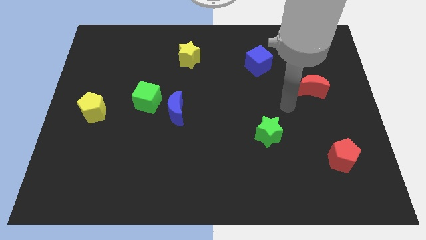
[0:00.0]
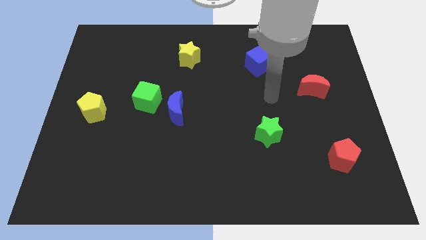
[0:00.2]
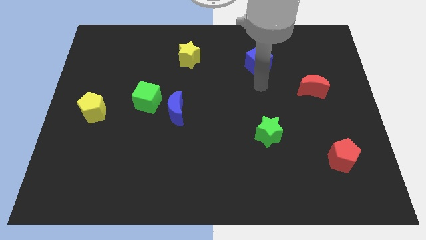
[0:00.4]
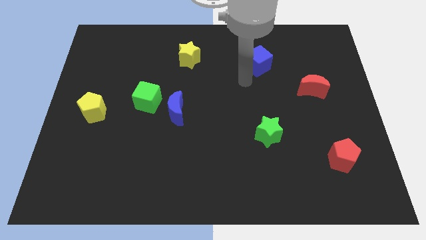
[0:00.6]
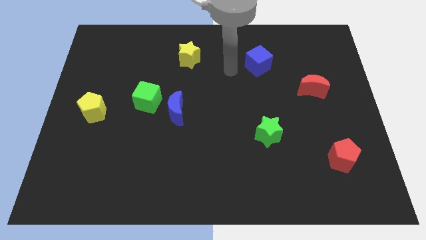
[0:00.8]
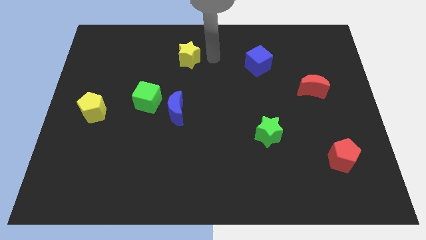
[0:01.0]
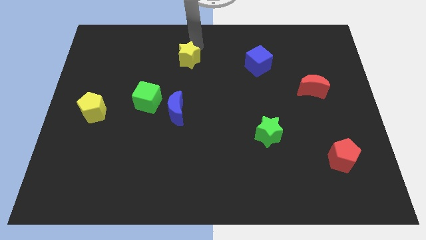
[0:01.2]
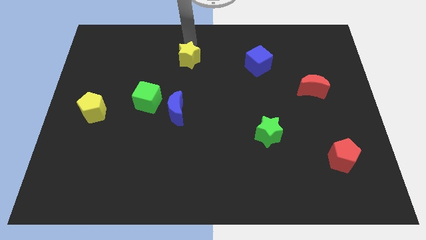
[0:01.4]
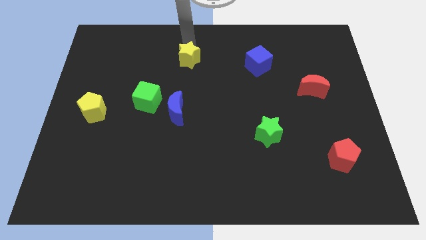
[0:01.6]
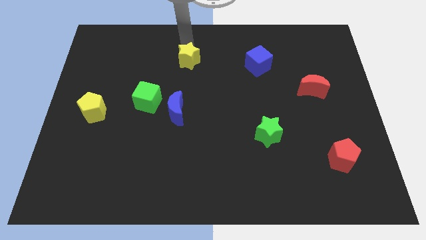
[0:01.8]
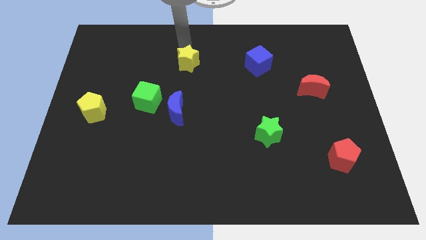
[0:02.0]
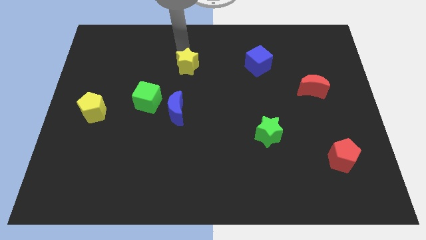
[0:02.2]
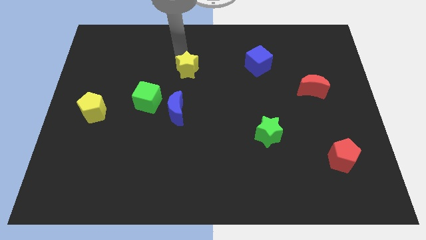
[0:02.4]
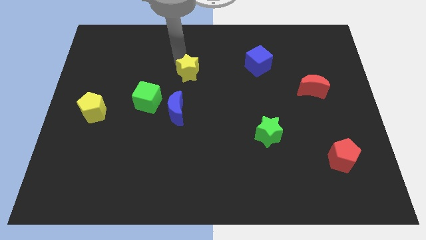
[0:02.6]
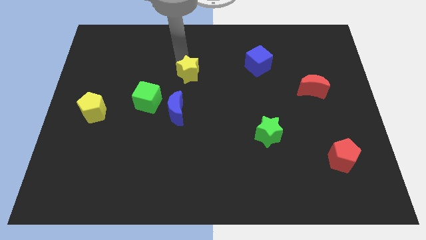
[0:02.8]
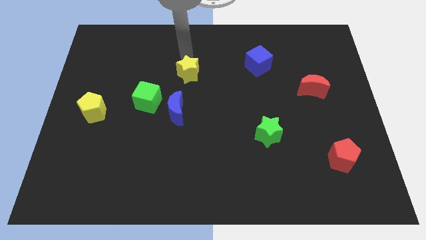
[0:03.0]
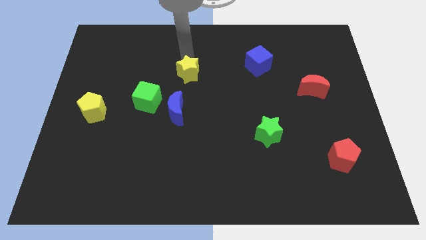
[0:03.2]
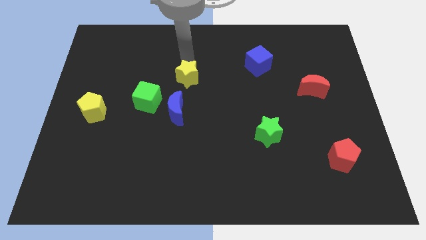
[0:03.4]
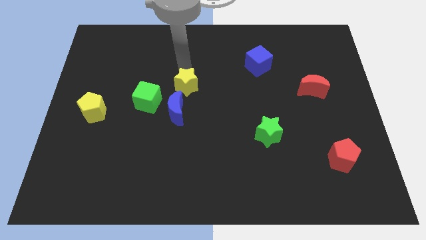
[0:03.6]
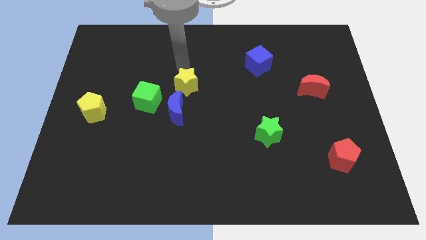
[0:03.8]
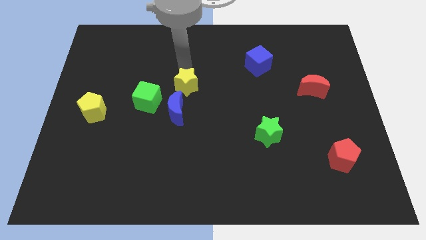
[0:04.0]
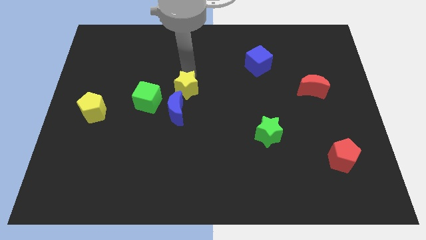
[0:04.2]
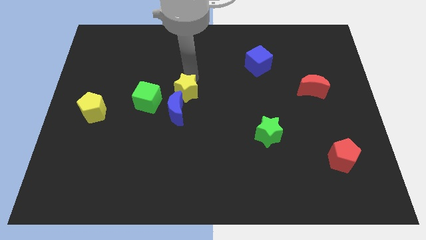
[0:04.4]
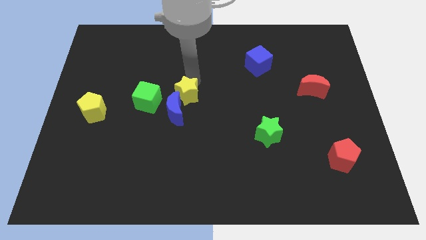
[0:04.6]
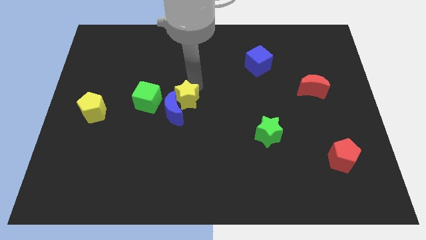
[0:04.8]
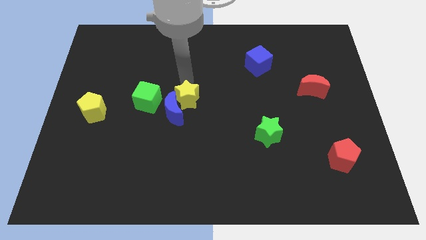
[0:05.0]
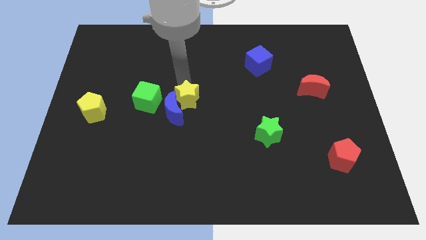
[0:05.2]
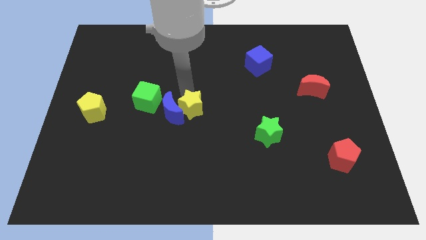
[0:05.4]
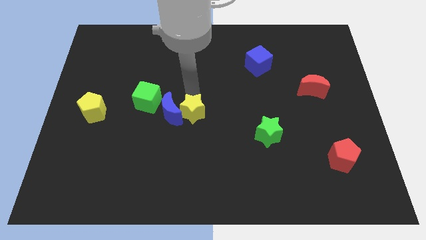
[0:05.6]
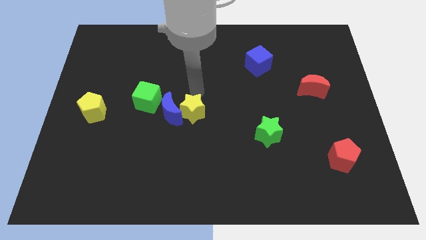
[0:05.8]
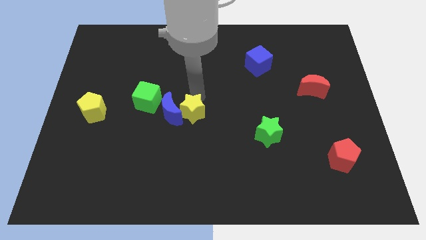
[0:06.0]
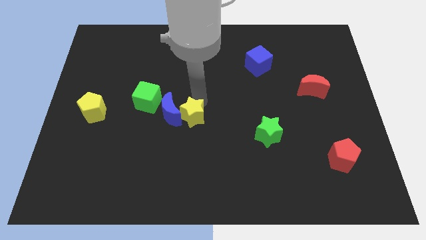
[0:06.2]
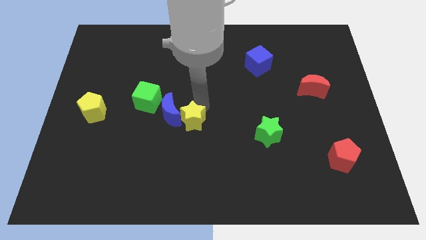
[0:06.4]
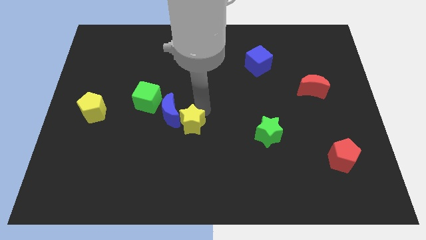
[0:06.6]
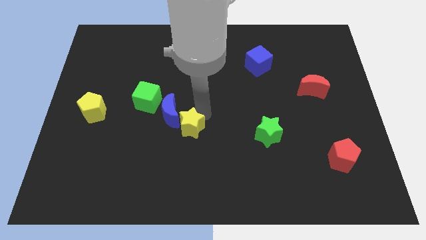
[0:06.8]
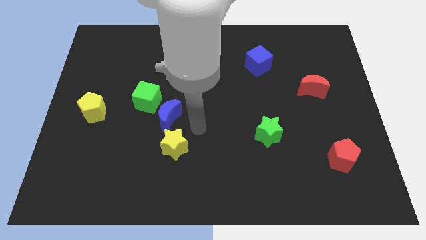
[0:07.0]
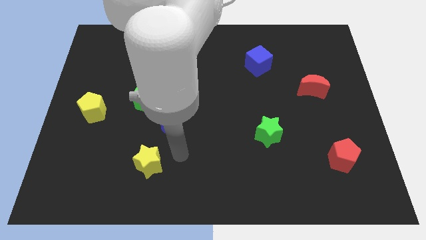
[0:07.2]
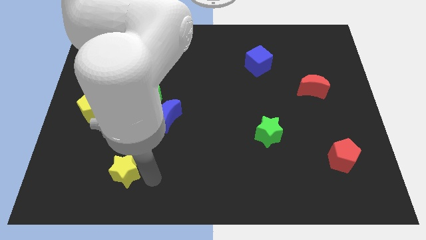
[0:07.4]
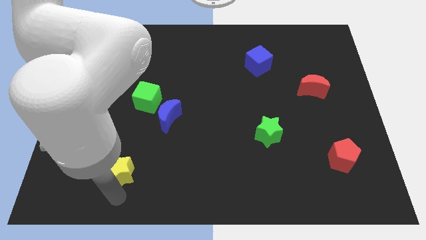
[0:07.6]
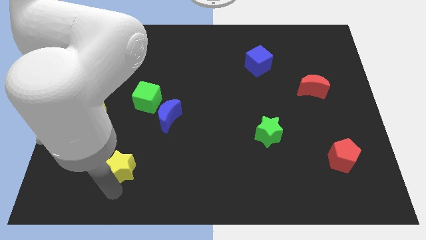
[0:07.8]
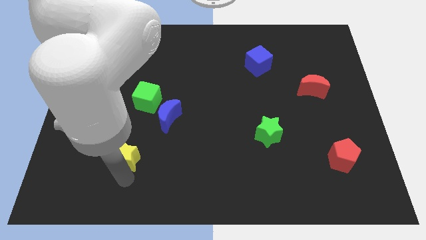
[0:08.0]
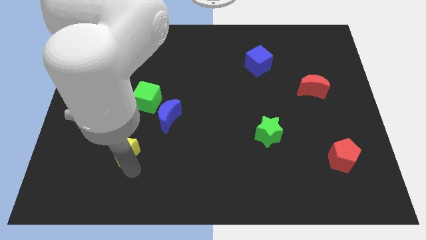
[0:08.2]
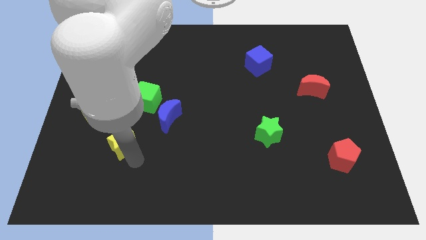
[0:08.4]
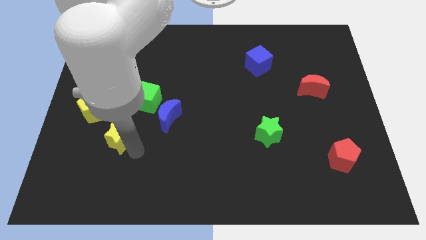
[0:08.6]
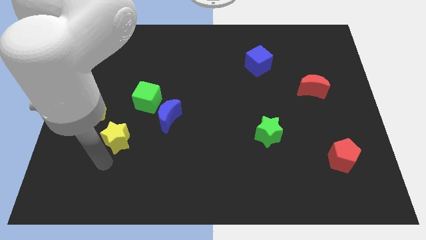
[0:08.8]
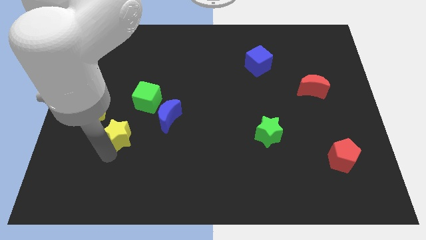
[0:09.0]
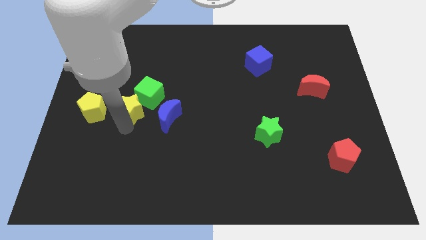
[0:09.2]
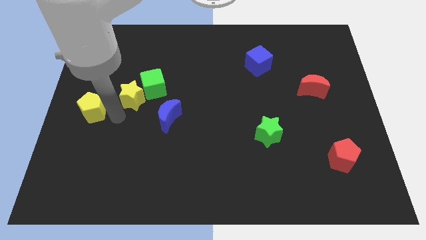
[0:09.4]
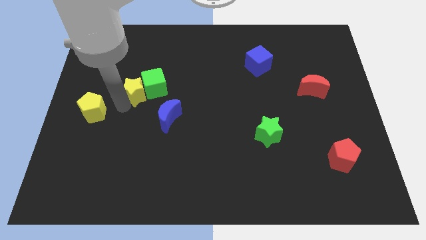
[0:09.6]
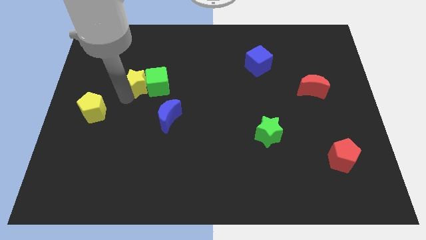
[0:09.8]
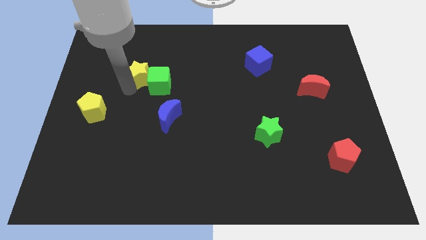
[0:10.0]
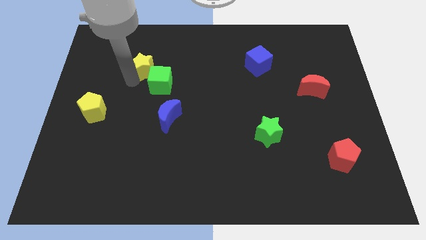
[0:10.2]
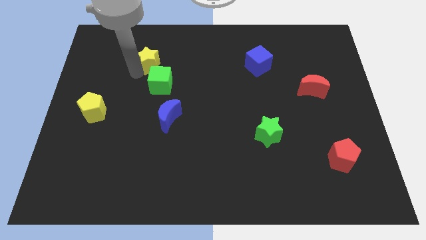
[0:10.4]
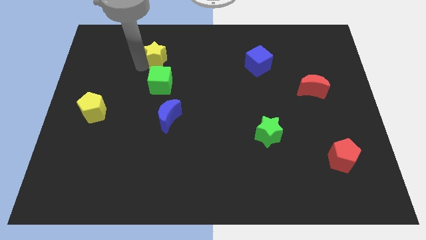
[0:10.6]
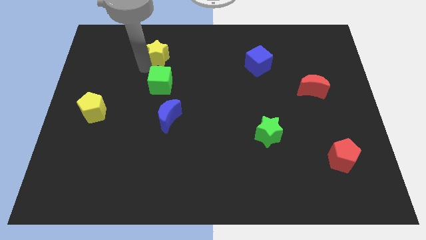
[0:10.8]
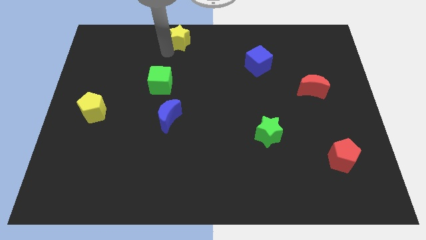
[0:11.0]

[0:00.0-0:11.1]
slide the yellow star to the towards your base

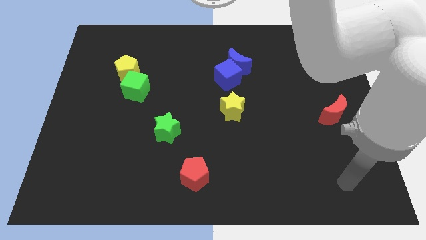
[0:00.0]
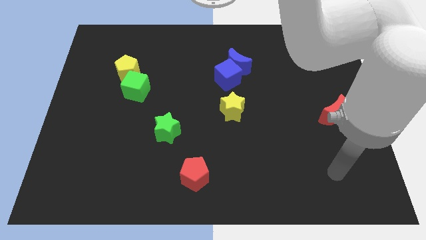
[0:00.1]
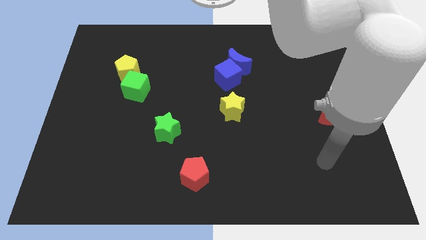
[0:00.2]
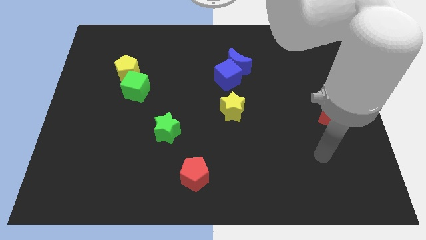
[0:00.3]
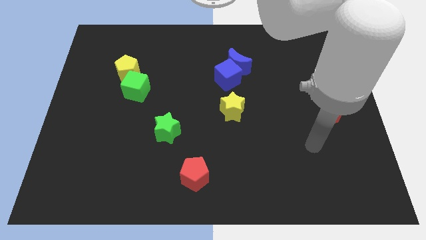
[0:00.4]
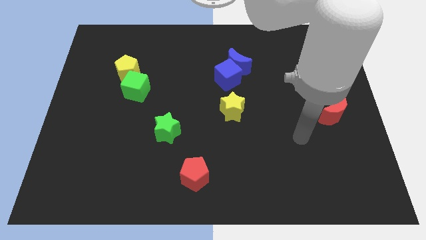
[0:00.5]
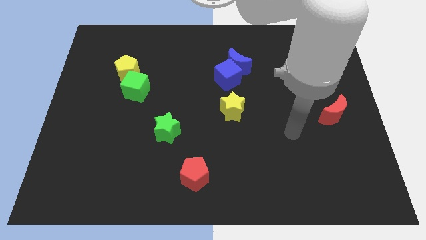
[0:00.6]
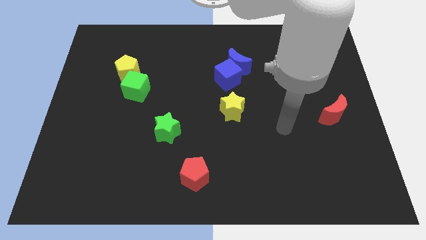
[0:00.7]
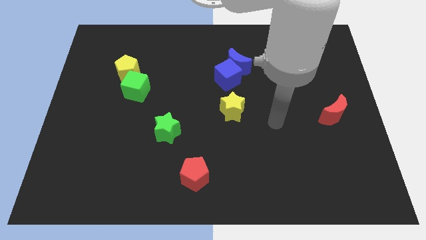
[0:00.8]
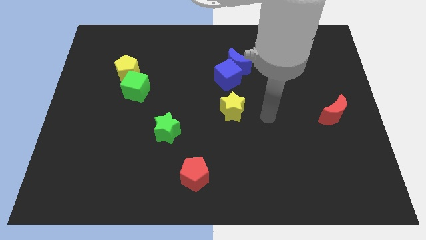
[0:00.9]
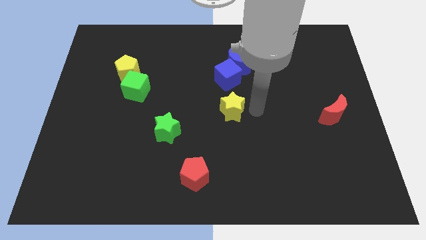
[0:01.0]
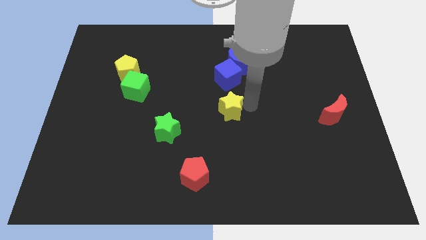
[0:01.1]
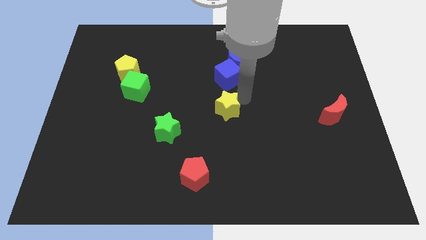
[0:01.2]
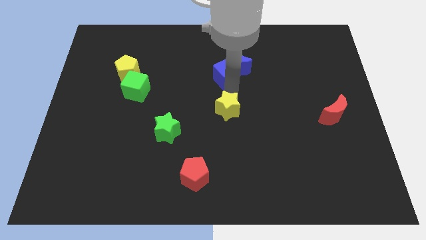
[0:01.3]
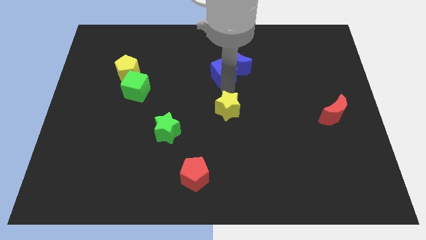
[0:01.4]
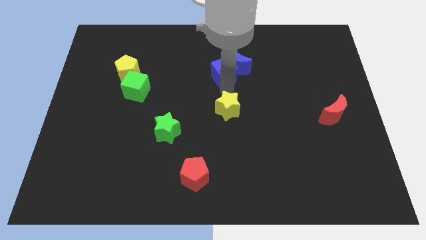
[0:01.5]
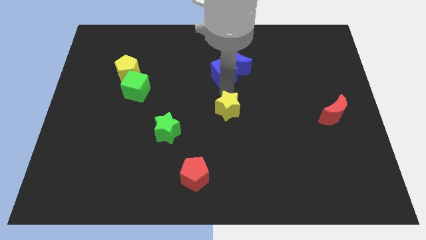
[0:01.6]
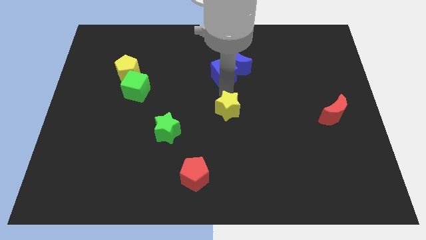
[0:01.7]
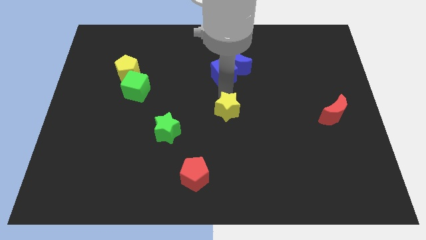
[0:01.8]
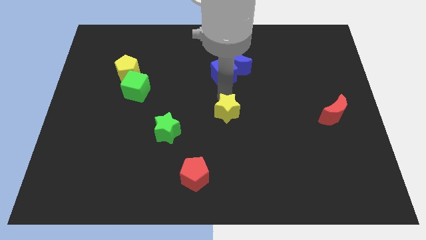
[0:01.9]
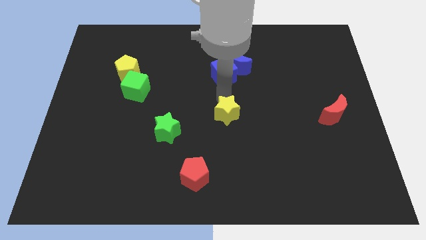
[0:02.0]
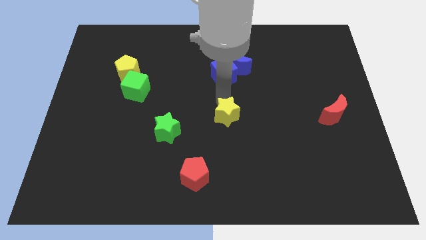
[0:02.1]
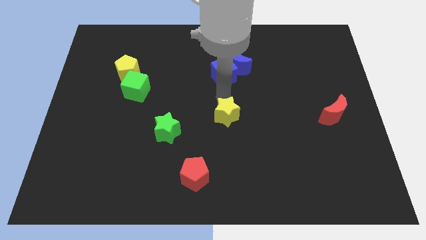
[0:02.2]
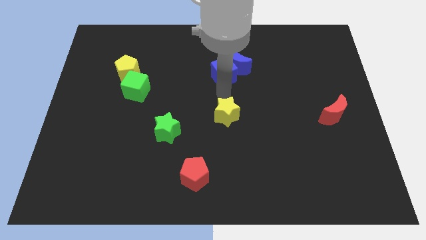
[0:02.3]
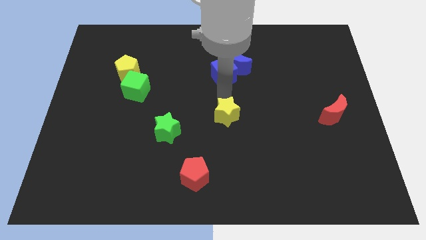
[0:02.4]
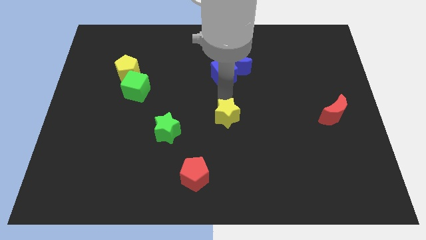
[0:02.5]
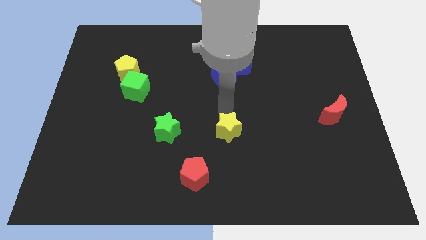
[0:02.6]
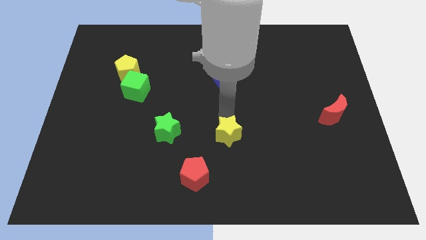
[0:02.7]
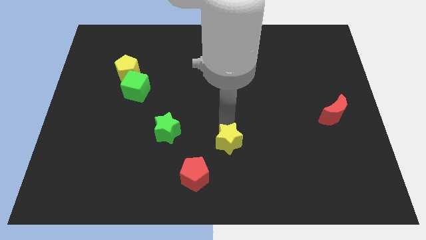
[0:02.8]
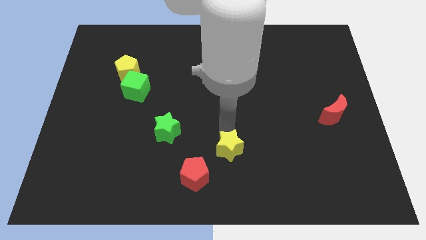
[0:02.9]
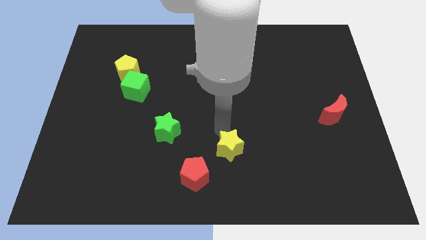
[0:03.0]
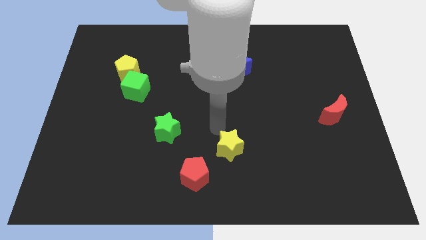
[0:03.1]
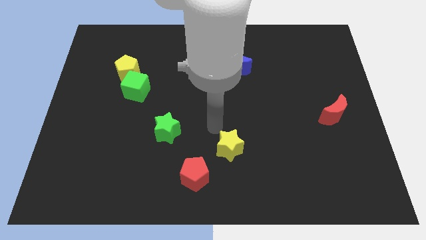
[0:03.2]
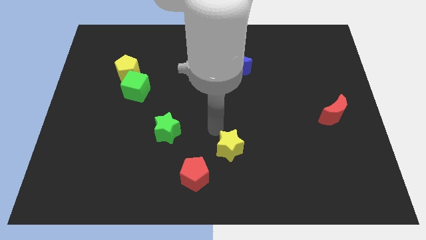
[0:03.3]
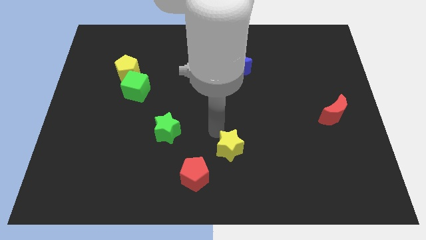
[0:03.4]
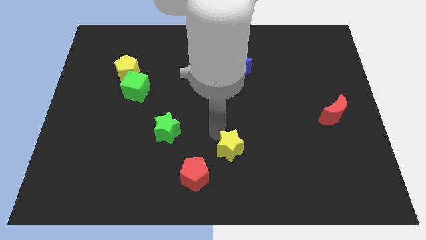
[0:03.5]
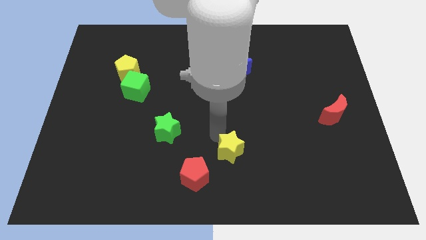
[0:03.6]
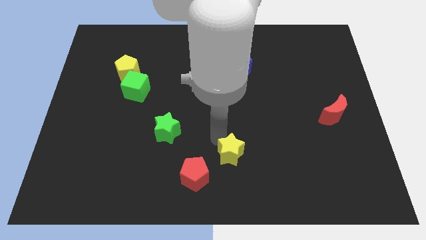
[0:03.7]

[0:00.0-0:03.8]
move the yellow star to the bottom side
